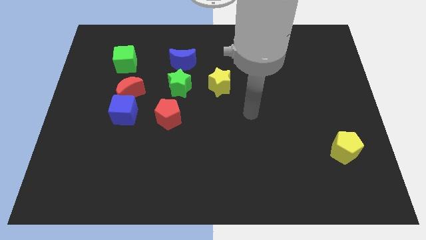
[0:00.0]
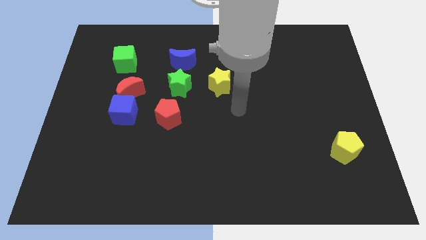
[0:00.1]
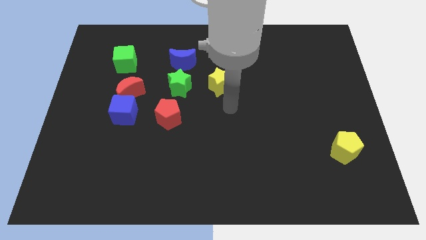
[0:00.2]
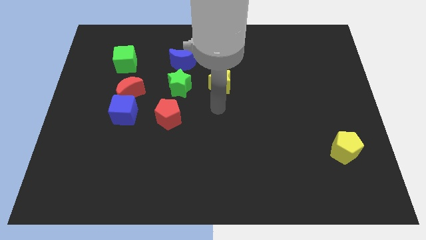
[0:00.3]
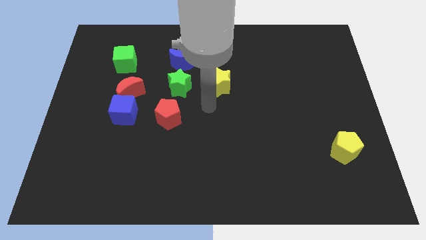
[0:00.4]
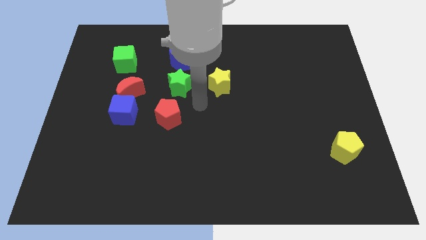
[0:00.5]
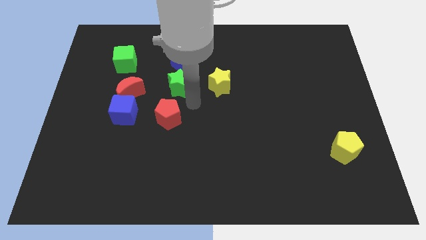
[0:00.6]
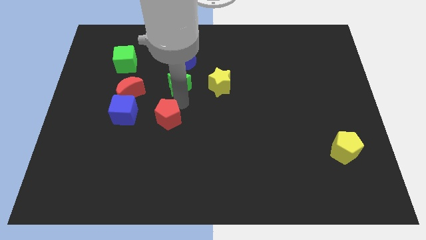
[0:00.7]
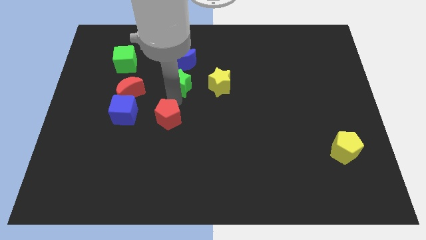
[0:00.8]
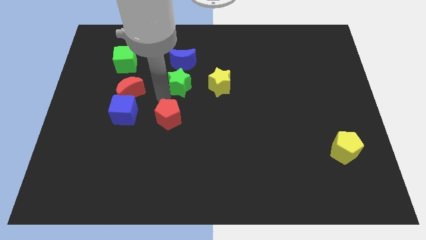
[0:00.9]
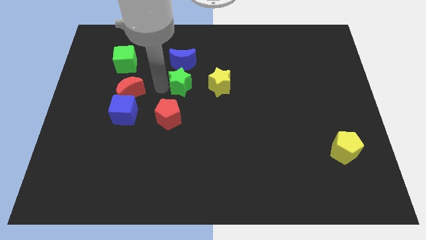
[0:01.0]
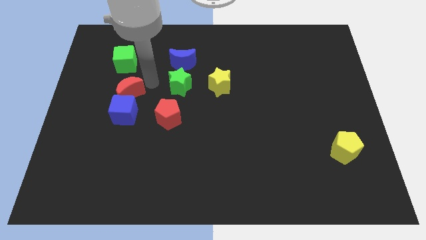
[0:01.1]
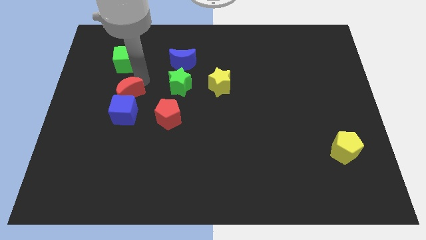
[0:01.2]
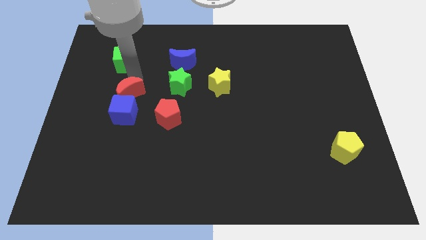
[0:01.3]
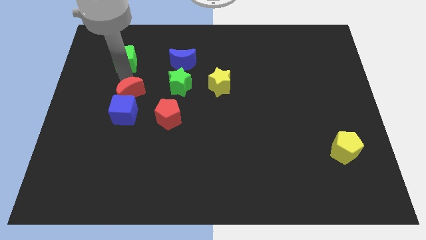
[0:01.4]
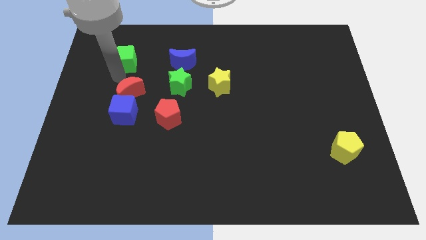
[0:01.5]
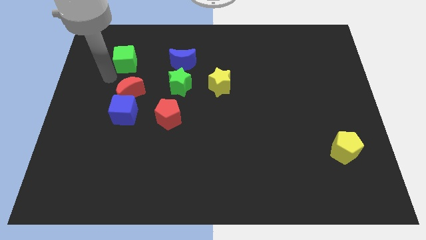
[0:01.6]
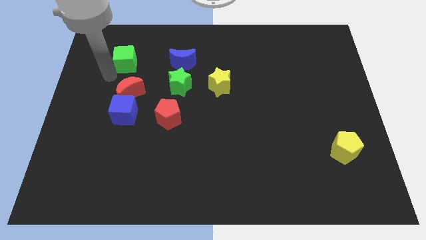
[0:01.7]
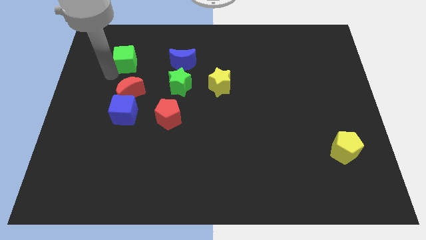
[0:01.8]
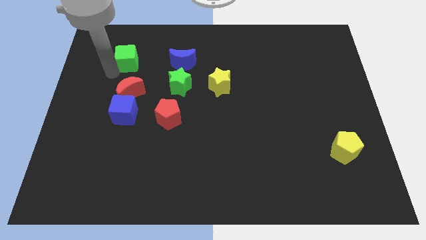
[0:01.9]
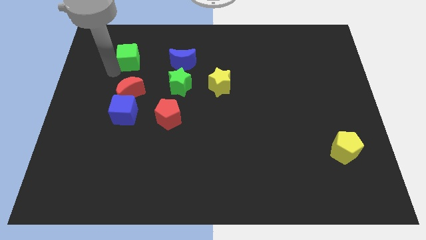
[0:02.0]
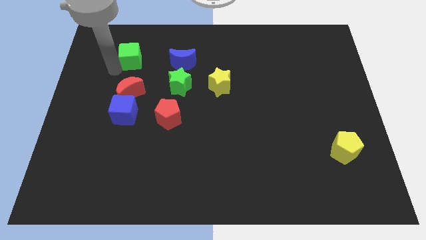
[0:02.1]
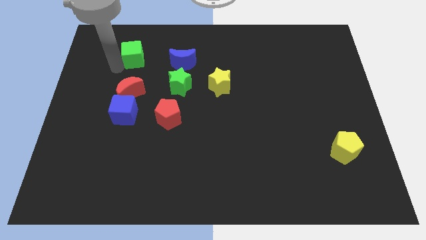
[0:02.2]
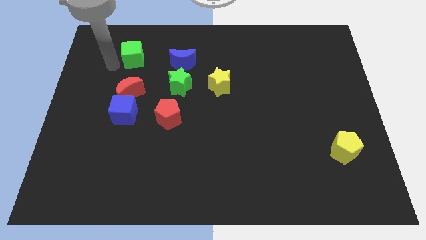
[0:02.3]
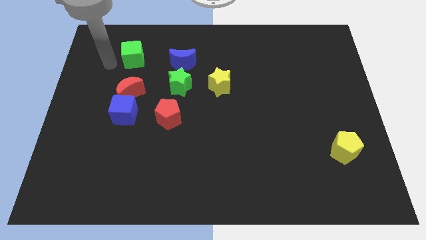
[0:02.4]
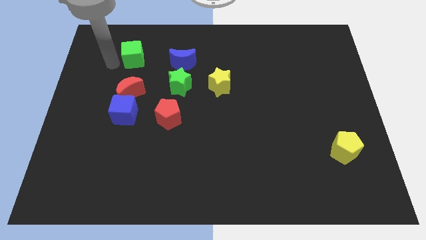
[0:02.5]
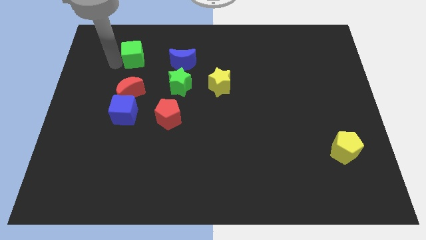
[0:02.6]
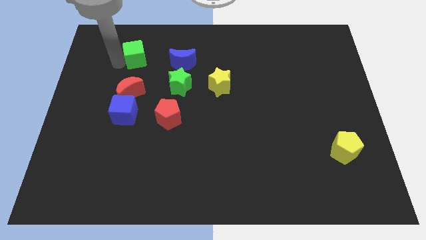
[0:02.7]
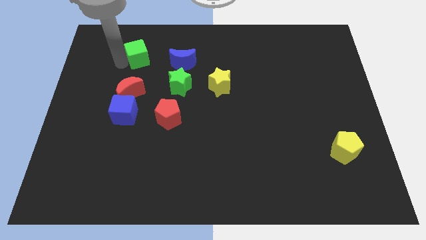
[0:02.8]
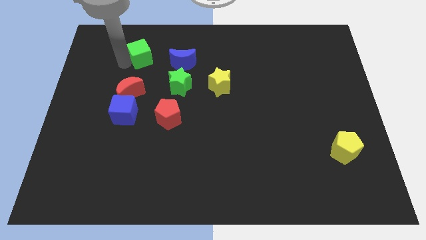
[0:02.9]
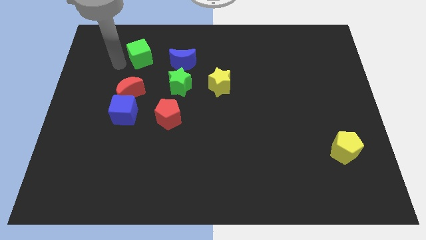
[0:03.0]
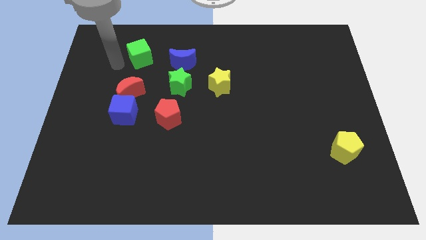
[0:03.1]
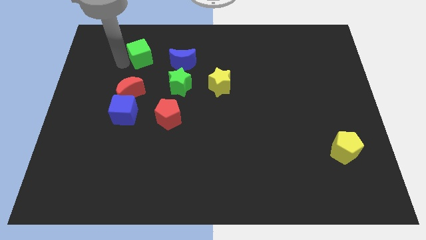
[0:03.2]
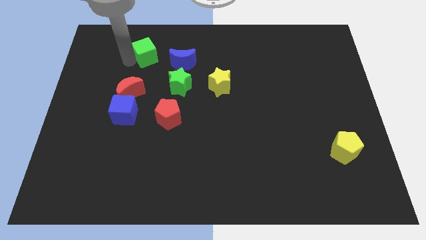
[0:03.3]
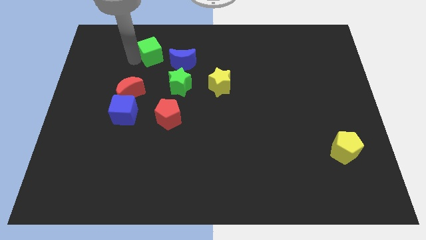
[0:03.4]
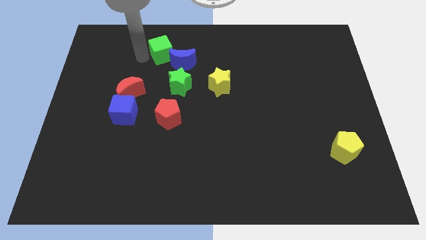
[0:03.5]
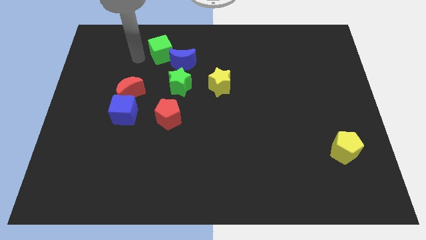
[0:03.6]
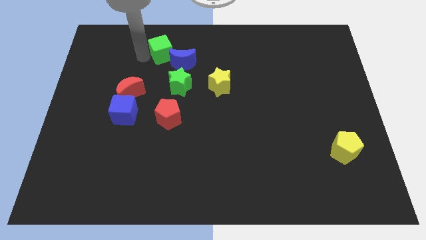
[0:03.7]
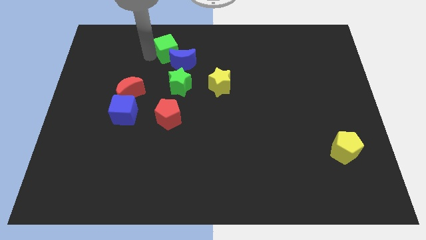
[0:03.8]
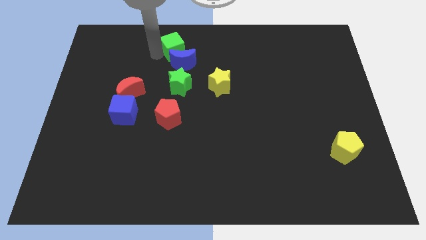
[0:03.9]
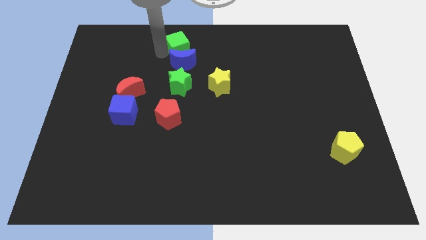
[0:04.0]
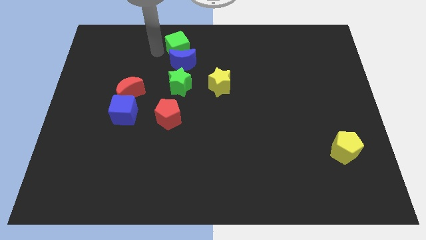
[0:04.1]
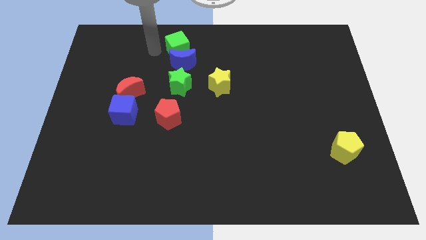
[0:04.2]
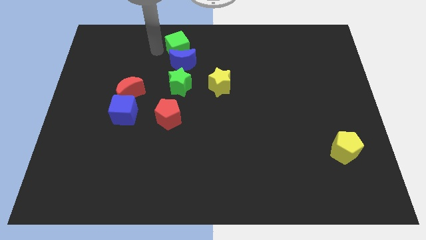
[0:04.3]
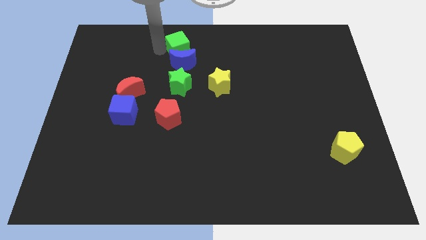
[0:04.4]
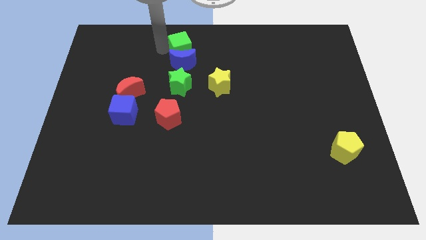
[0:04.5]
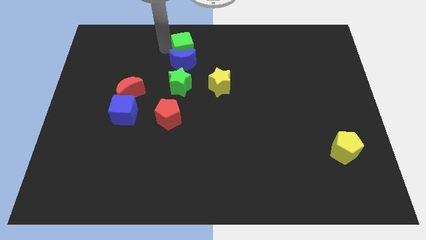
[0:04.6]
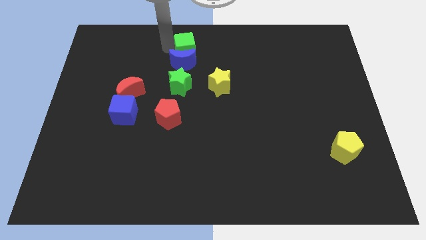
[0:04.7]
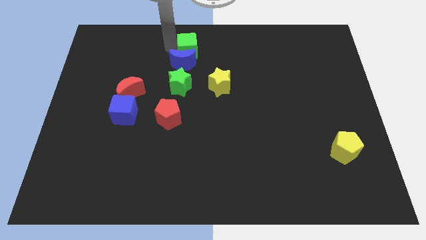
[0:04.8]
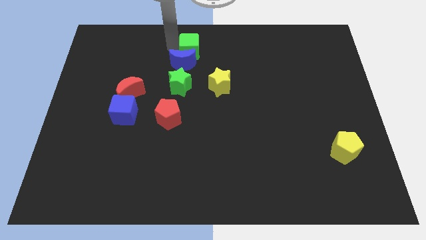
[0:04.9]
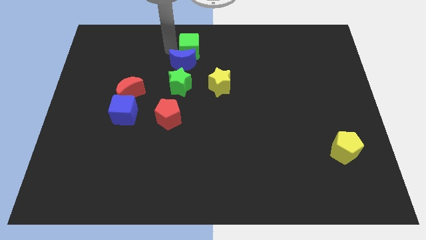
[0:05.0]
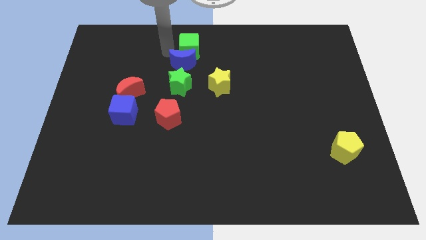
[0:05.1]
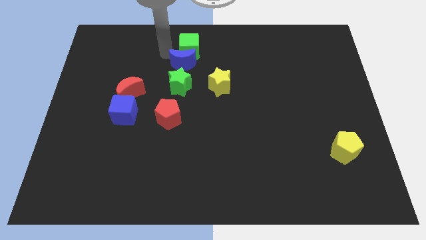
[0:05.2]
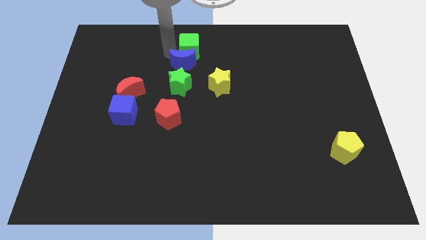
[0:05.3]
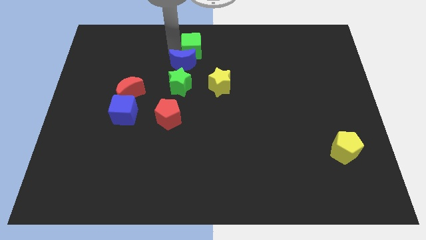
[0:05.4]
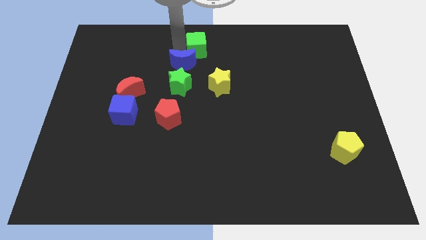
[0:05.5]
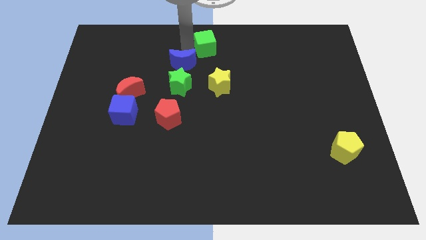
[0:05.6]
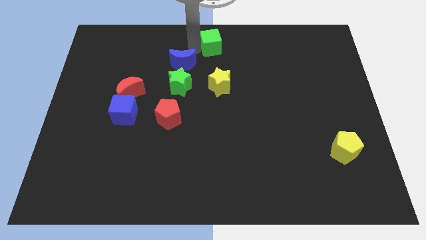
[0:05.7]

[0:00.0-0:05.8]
move the green cube to the right

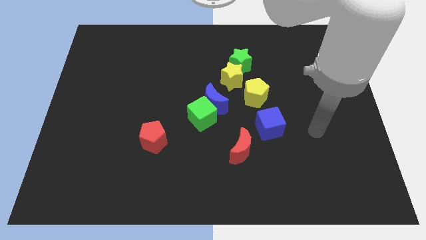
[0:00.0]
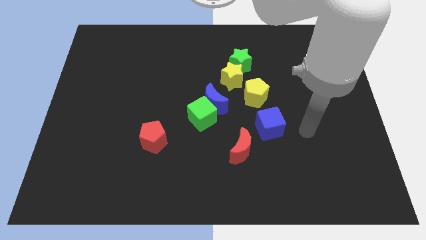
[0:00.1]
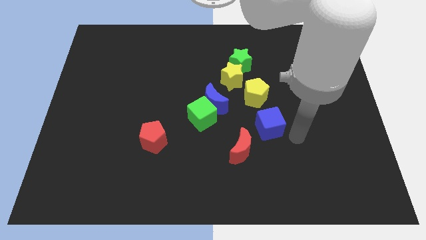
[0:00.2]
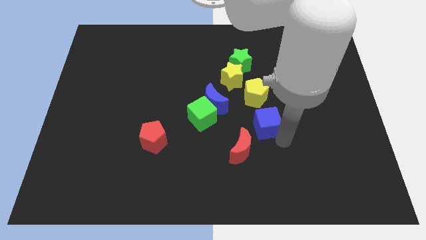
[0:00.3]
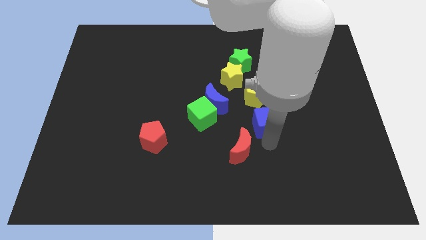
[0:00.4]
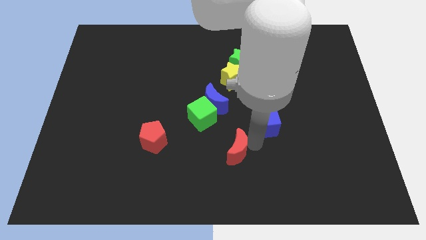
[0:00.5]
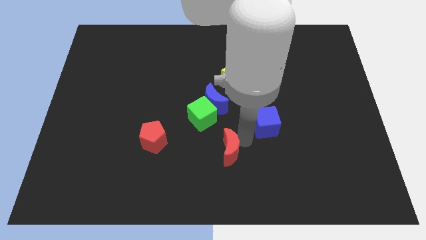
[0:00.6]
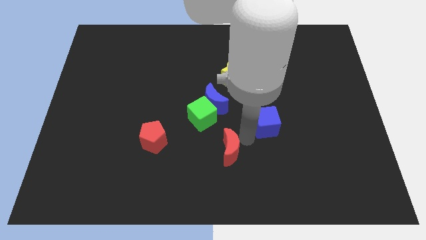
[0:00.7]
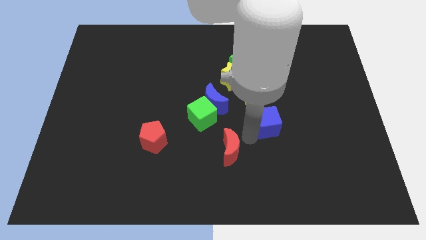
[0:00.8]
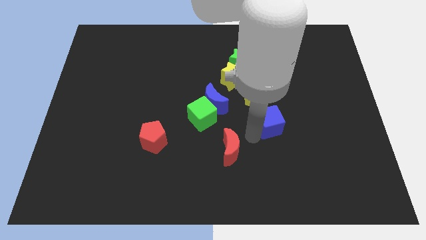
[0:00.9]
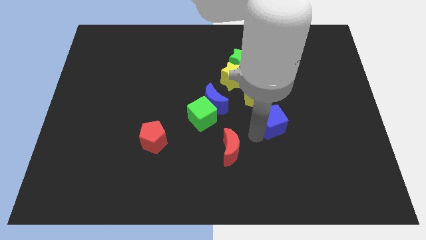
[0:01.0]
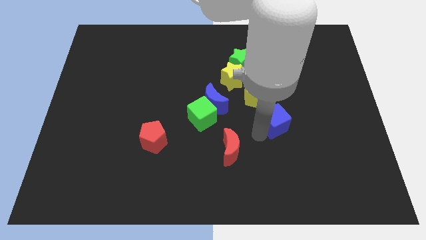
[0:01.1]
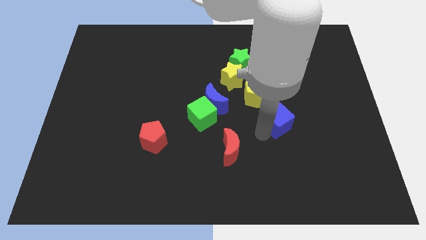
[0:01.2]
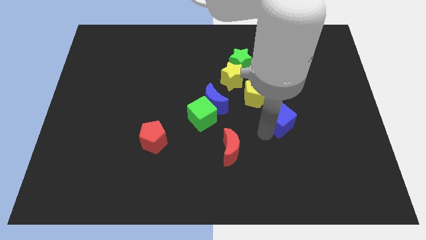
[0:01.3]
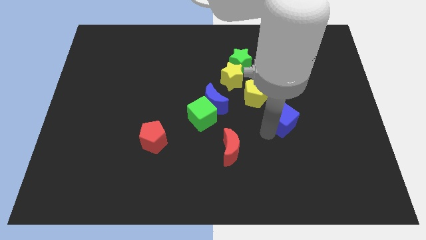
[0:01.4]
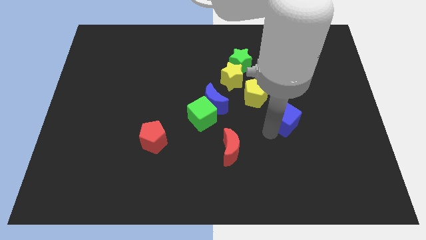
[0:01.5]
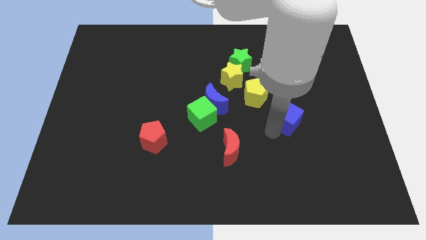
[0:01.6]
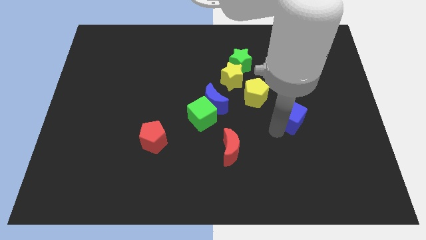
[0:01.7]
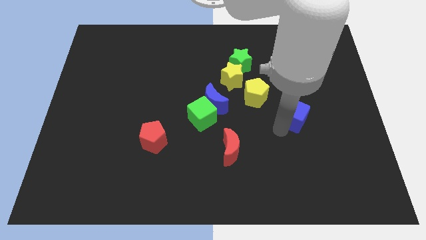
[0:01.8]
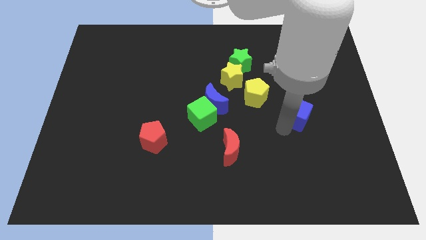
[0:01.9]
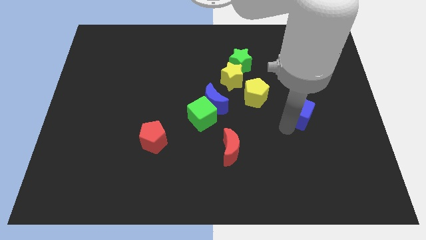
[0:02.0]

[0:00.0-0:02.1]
slightly push the blue cube up and right diagonally

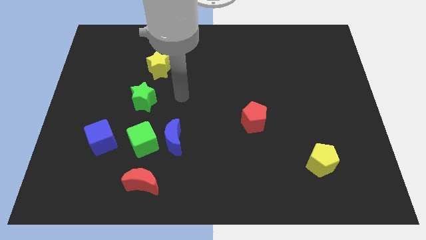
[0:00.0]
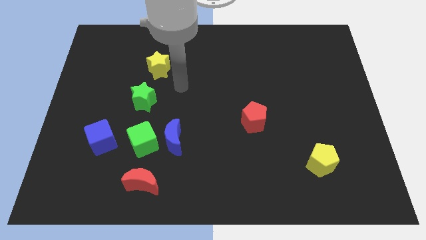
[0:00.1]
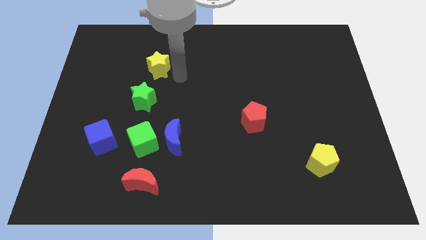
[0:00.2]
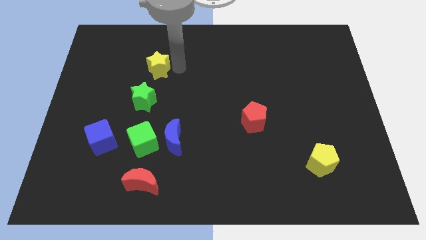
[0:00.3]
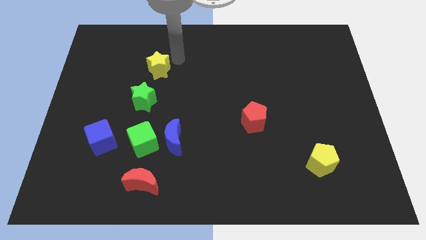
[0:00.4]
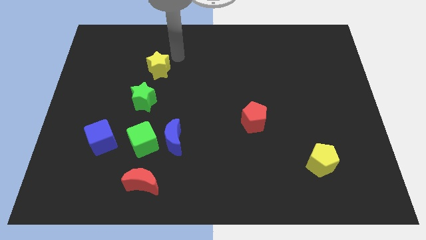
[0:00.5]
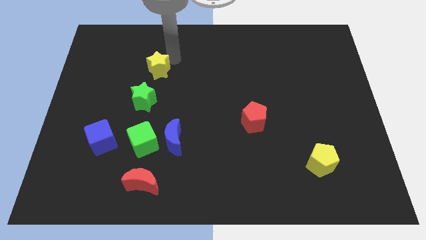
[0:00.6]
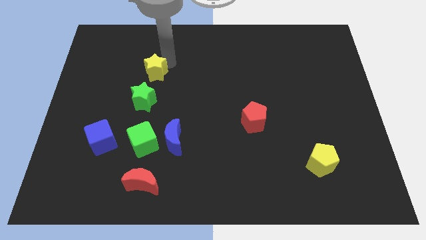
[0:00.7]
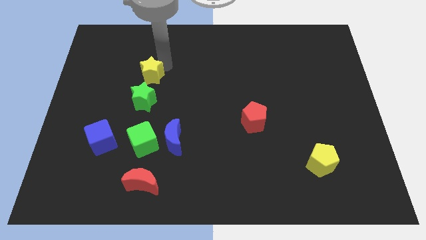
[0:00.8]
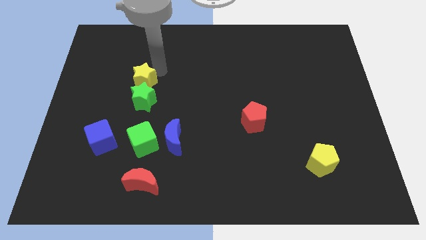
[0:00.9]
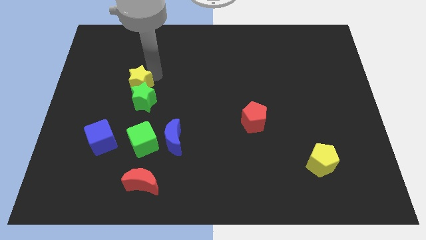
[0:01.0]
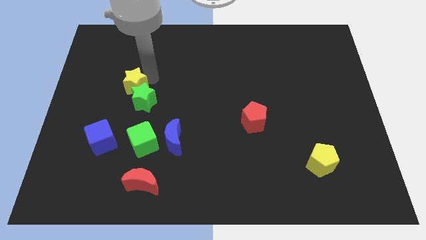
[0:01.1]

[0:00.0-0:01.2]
slide the yellow star slightly downwards and to the left diagonally
